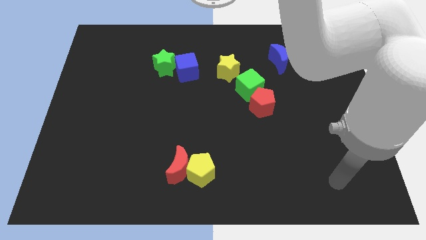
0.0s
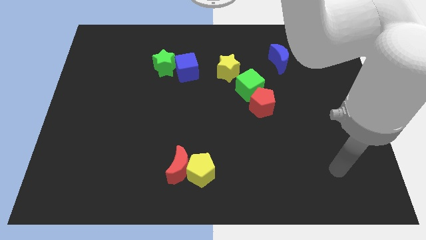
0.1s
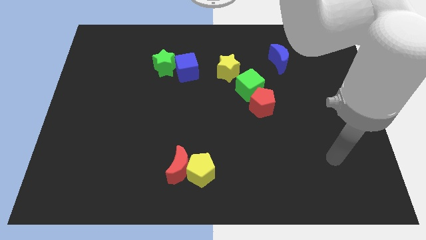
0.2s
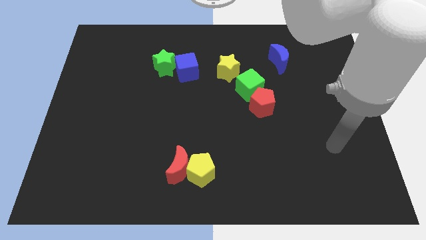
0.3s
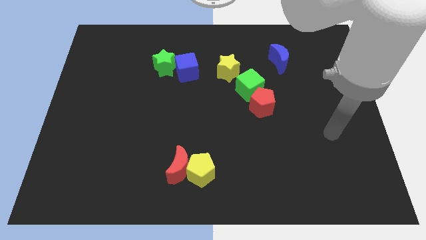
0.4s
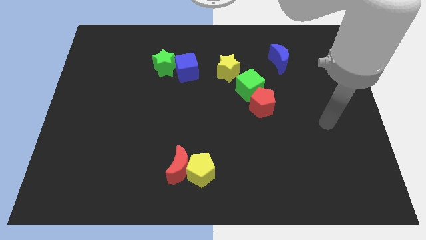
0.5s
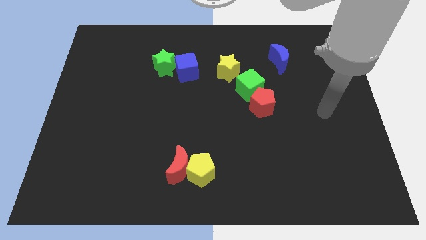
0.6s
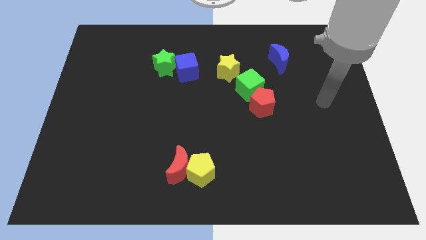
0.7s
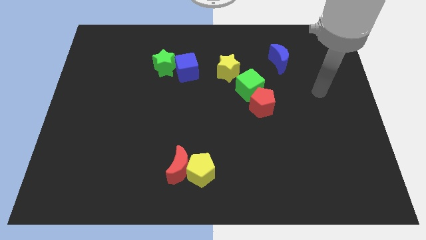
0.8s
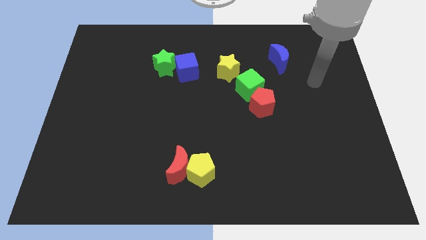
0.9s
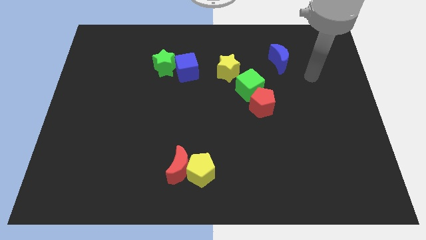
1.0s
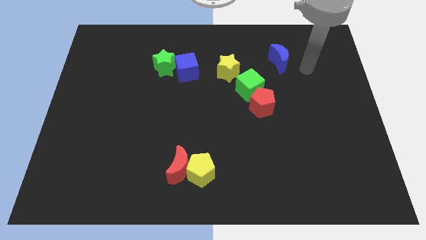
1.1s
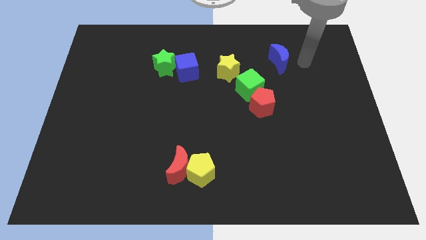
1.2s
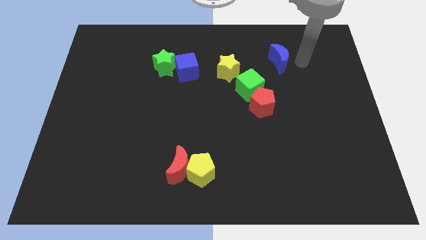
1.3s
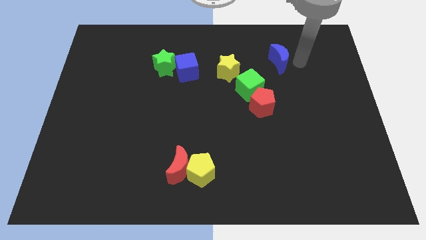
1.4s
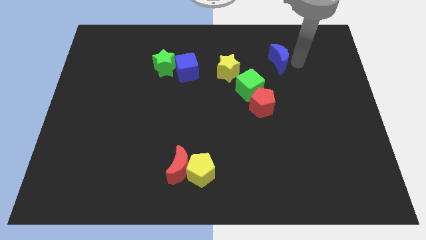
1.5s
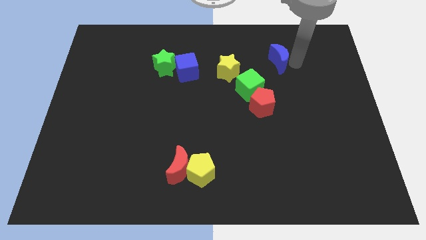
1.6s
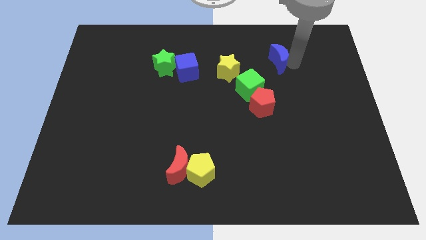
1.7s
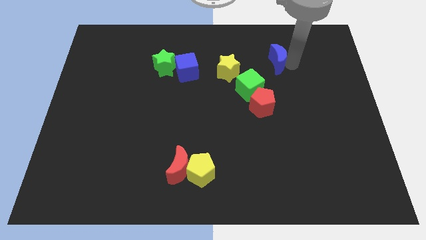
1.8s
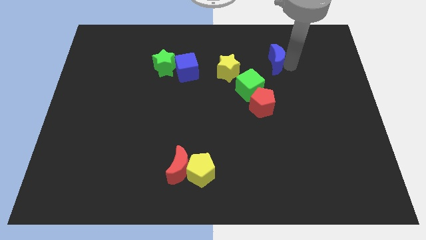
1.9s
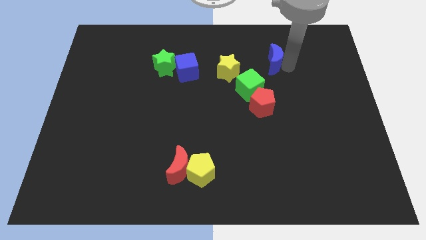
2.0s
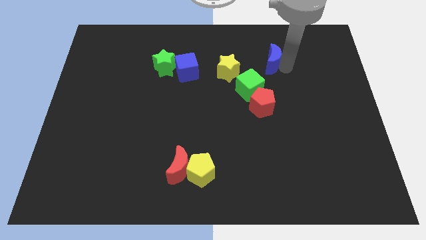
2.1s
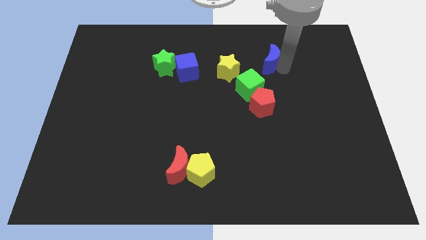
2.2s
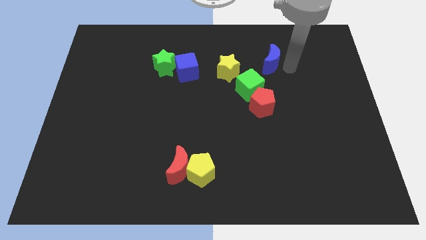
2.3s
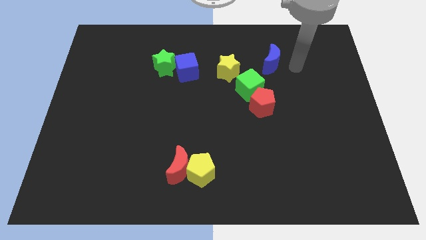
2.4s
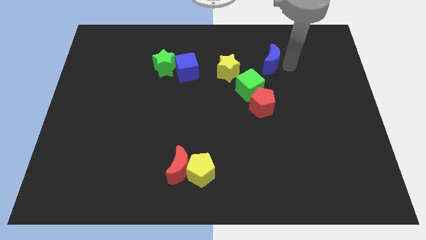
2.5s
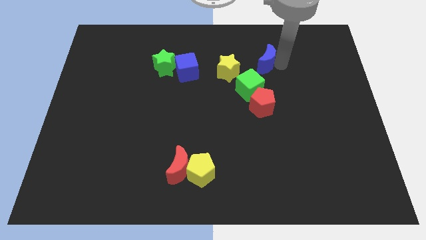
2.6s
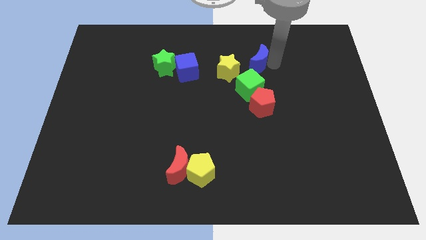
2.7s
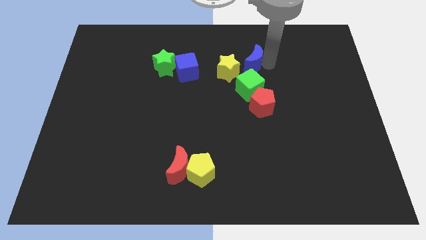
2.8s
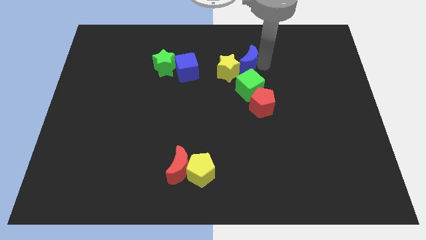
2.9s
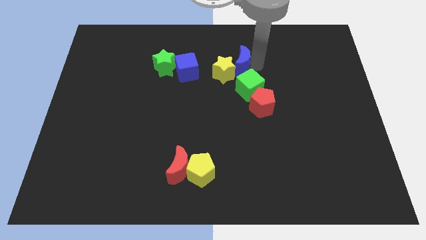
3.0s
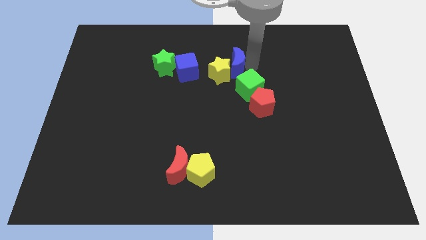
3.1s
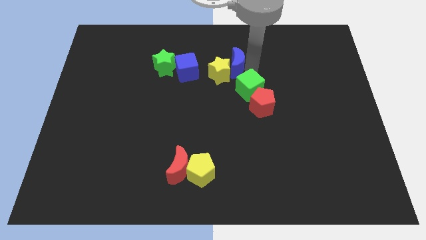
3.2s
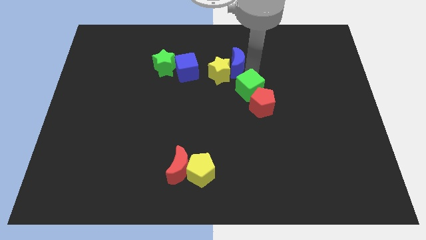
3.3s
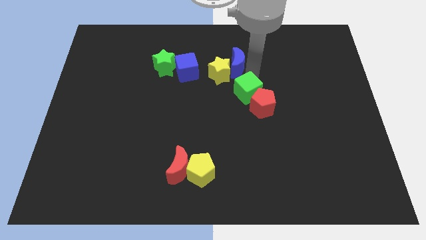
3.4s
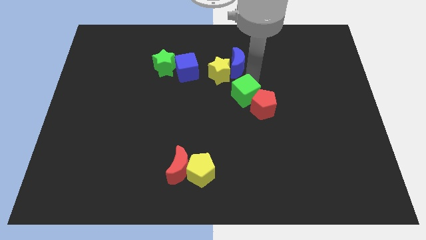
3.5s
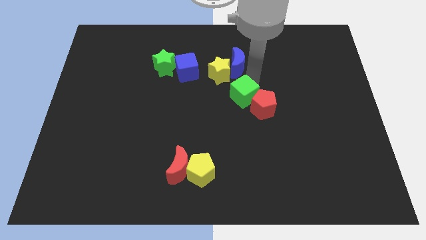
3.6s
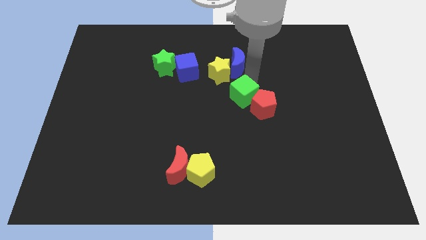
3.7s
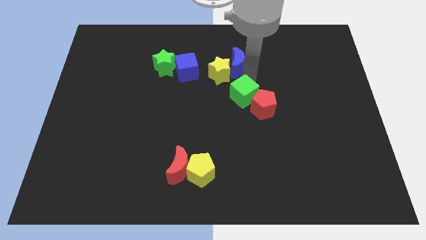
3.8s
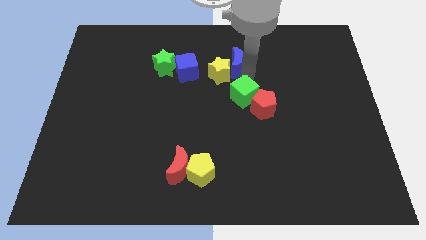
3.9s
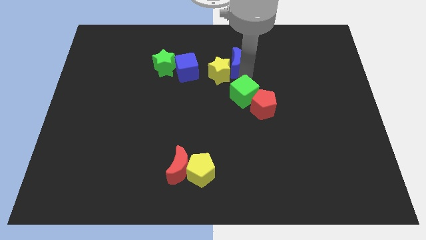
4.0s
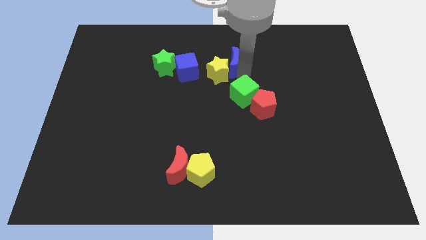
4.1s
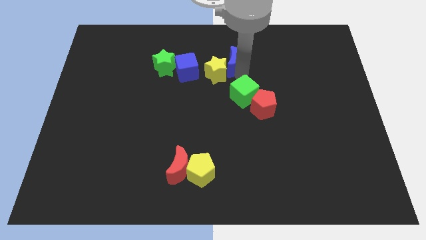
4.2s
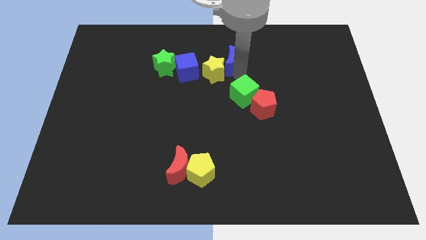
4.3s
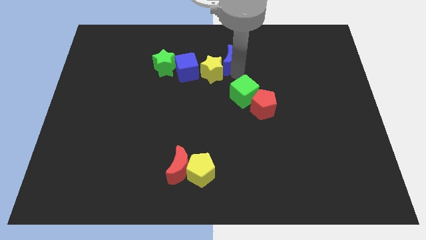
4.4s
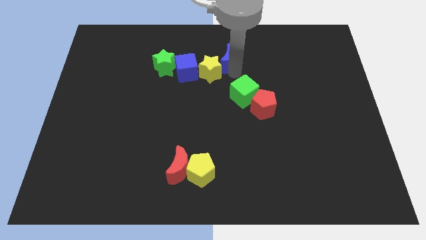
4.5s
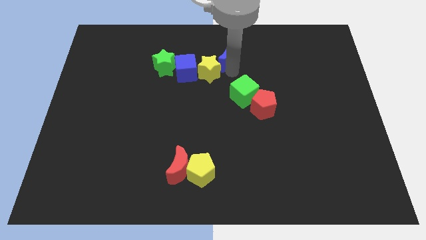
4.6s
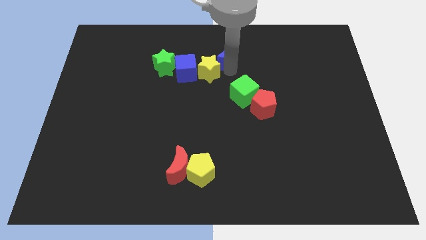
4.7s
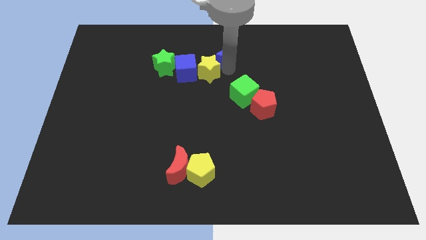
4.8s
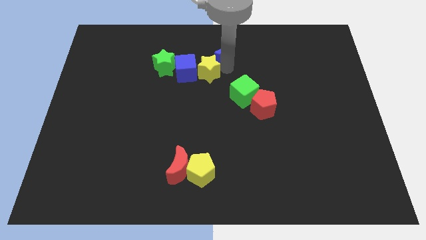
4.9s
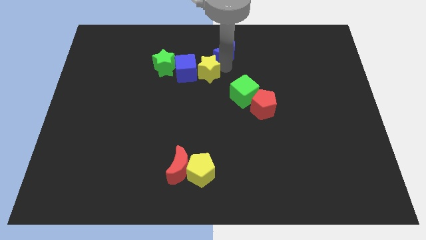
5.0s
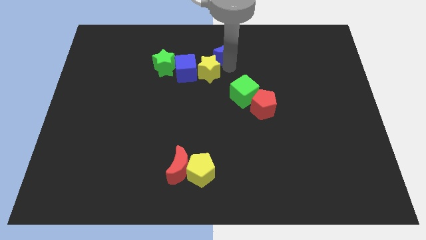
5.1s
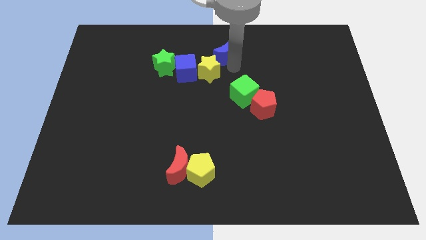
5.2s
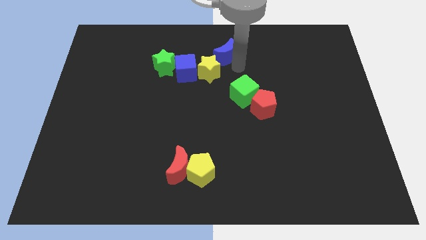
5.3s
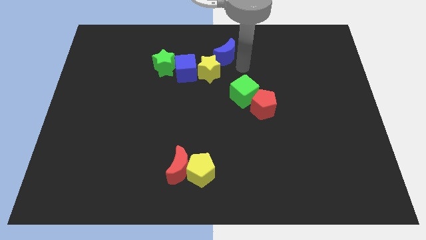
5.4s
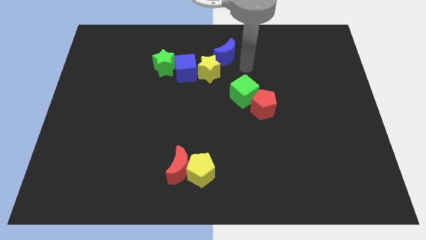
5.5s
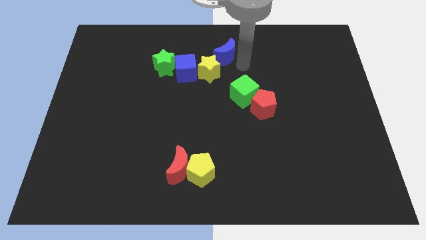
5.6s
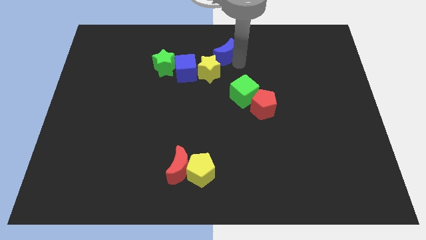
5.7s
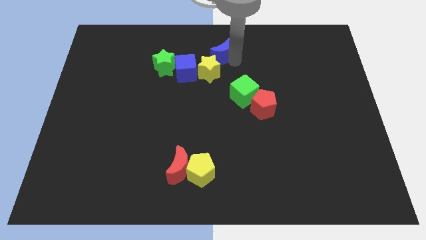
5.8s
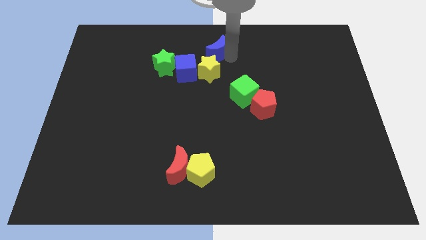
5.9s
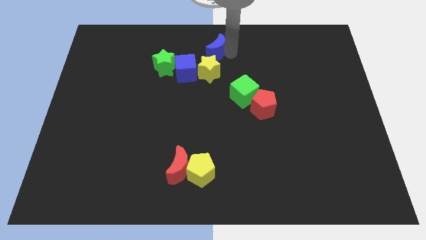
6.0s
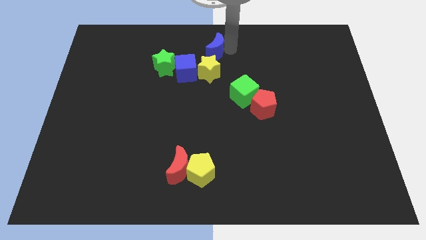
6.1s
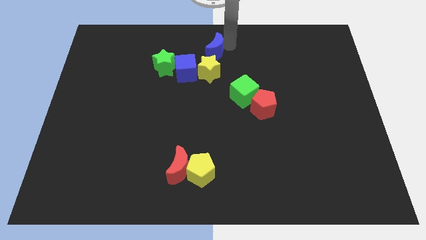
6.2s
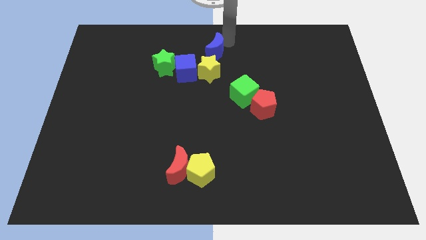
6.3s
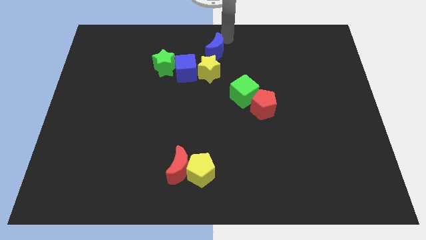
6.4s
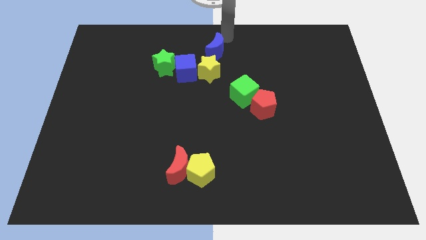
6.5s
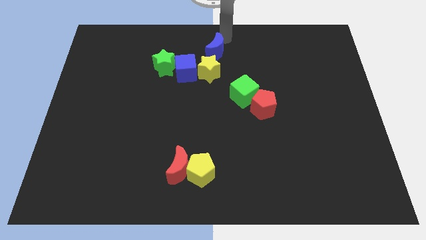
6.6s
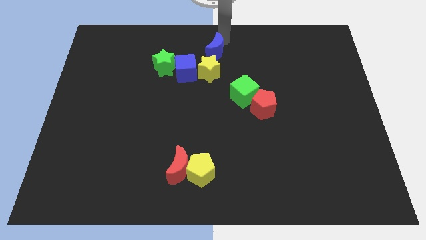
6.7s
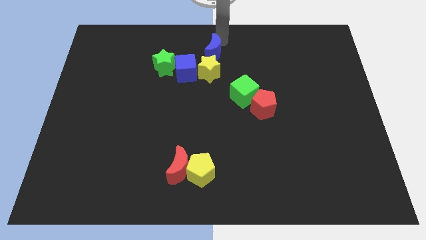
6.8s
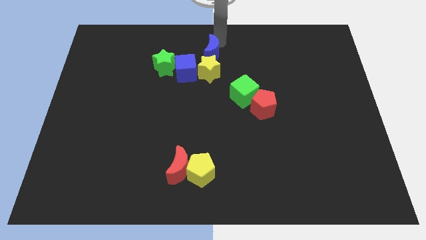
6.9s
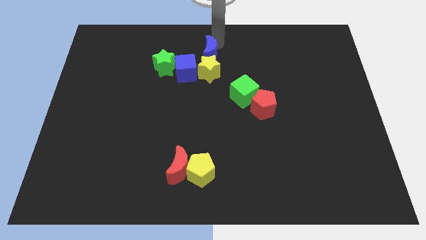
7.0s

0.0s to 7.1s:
move the blue moon right of the green star

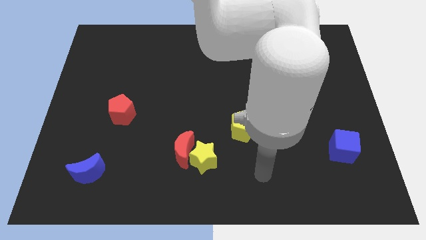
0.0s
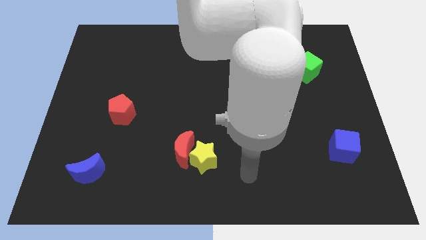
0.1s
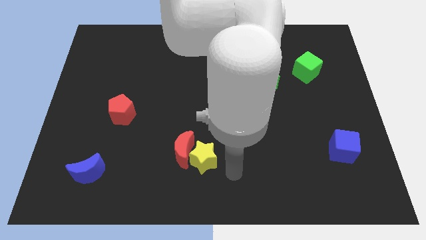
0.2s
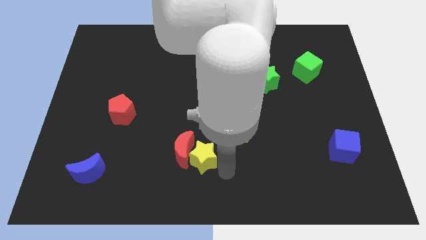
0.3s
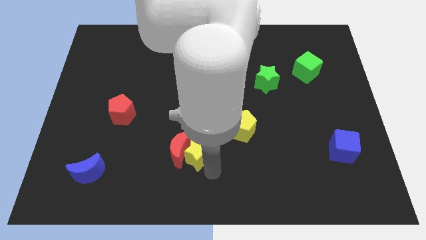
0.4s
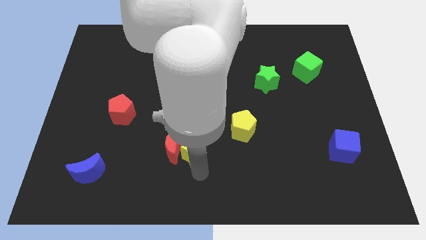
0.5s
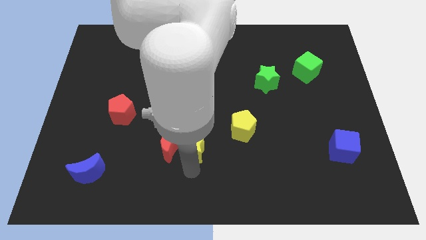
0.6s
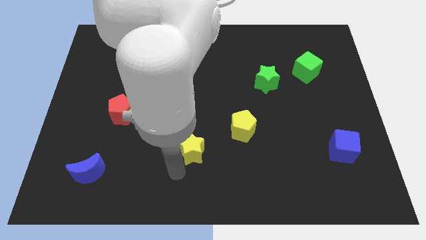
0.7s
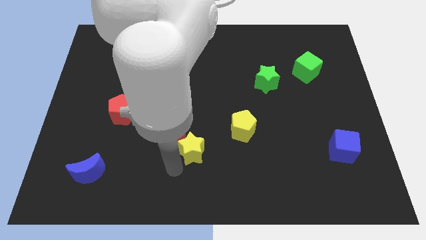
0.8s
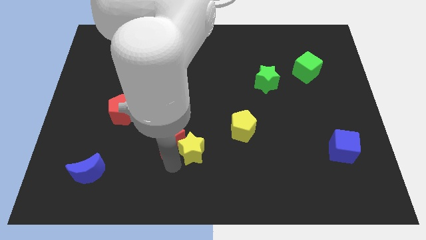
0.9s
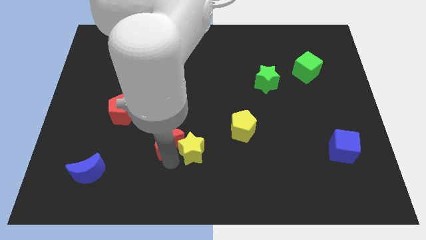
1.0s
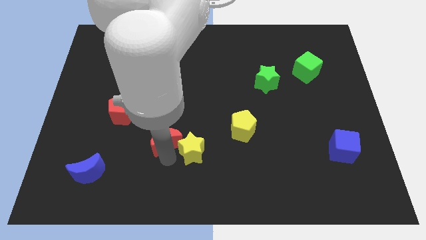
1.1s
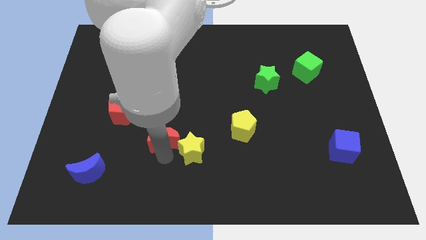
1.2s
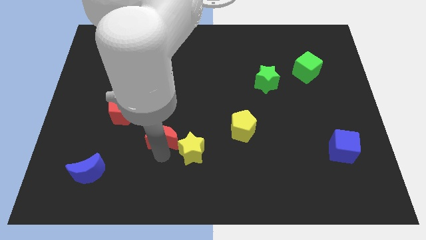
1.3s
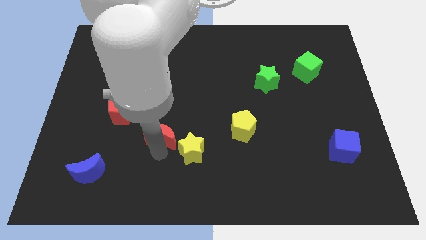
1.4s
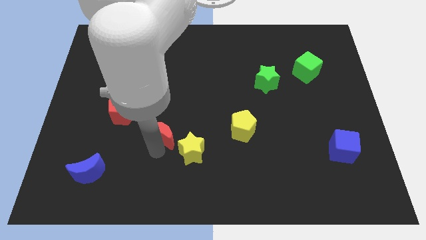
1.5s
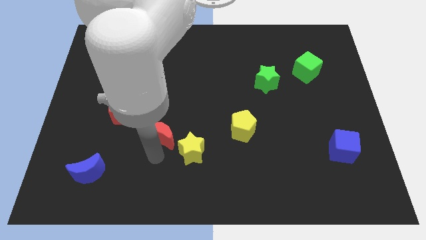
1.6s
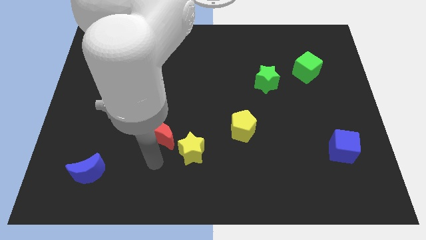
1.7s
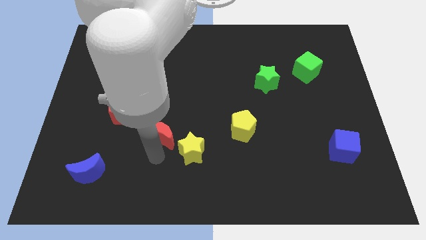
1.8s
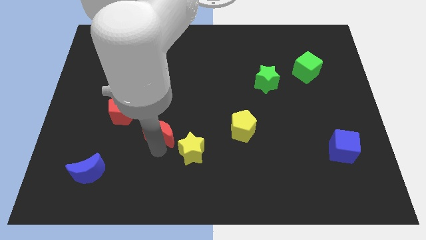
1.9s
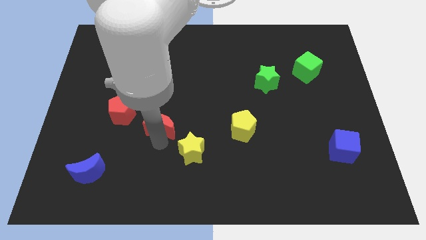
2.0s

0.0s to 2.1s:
move the red moon to the right side of the red pentagon
